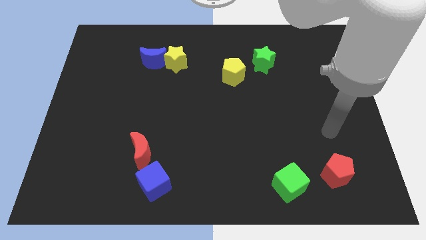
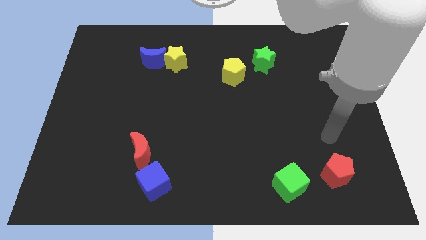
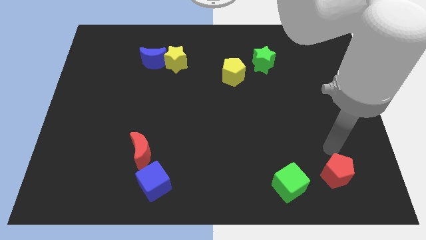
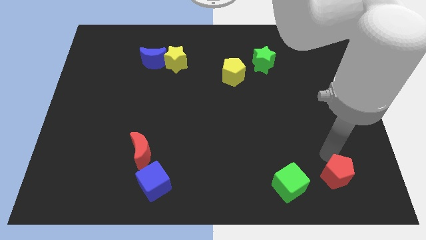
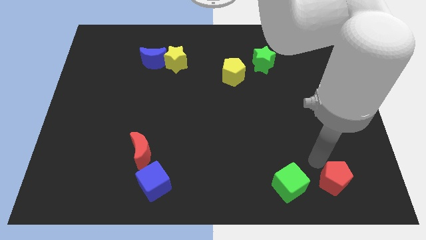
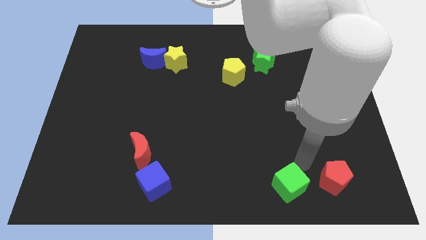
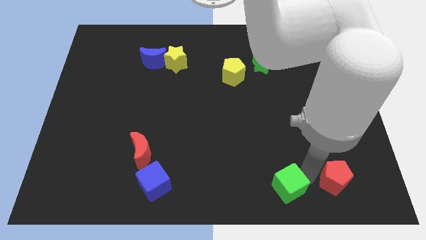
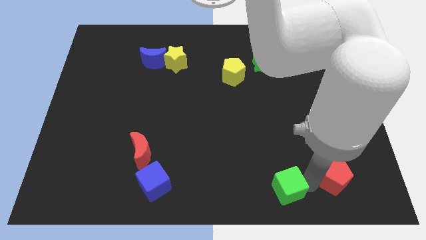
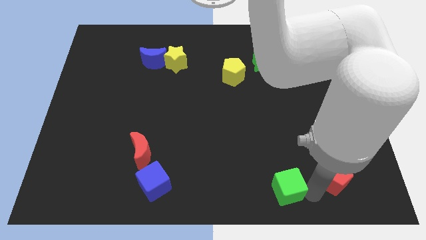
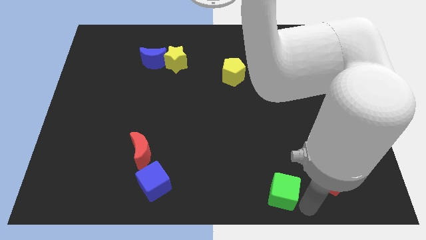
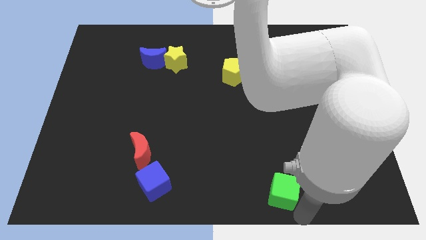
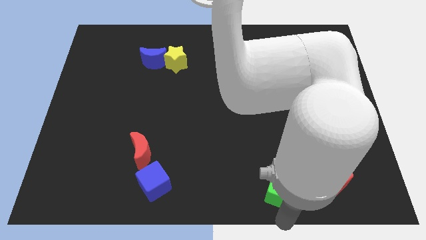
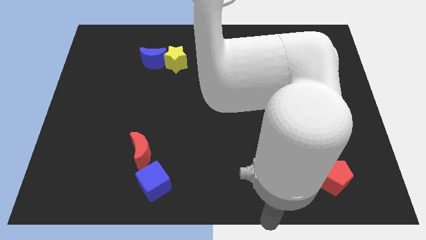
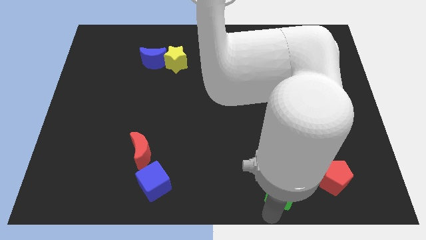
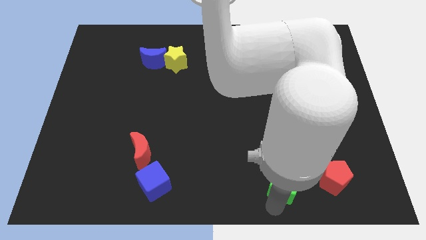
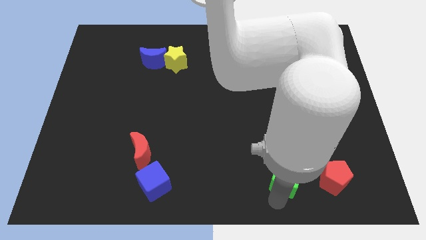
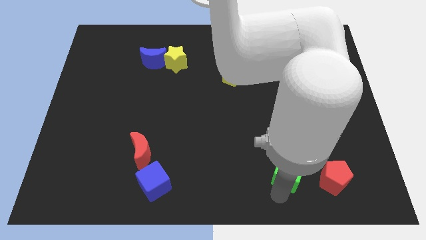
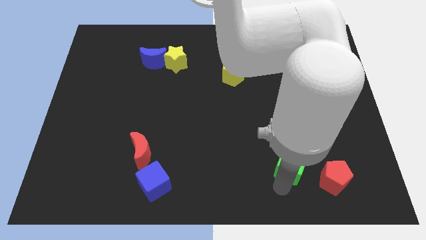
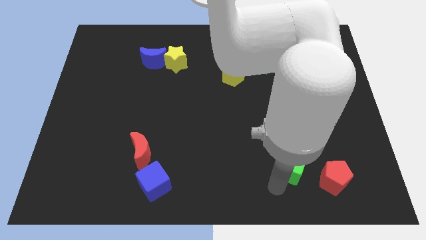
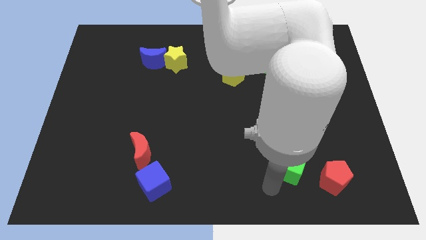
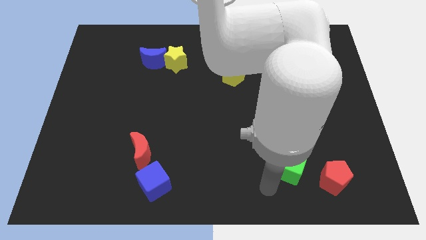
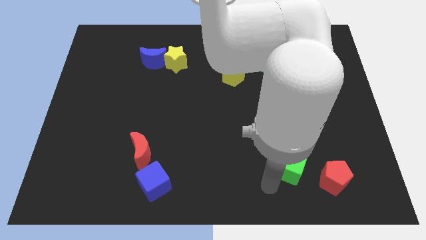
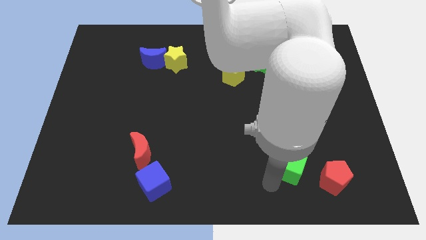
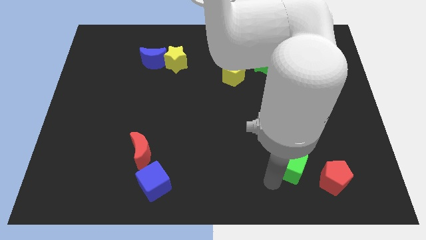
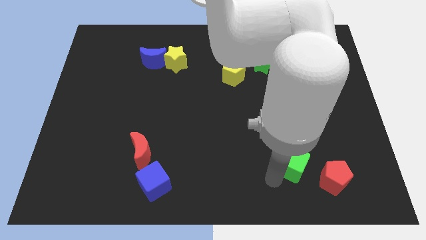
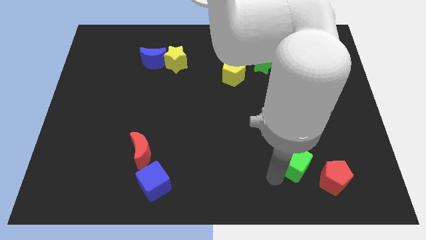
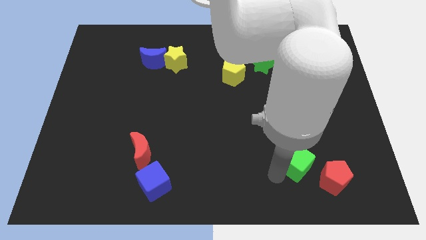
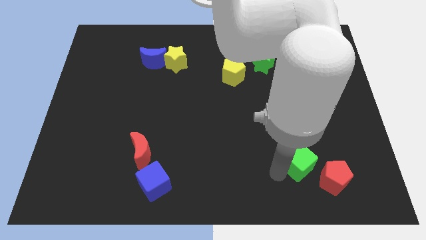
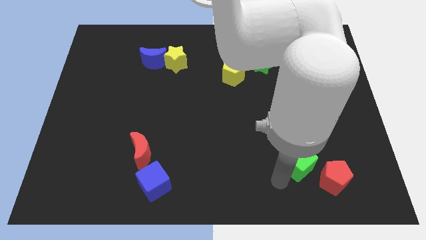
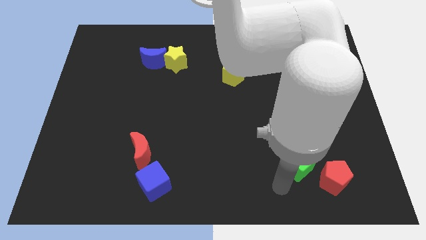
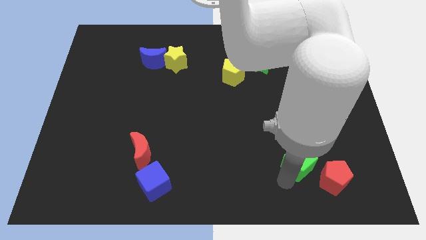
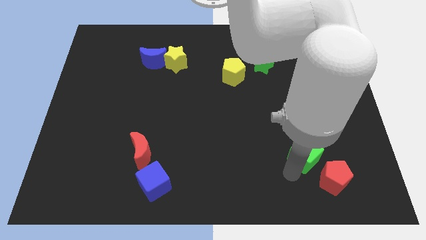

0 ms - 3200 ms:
slightly move the green cube upwards and to the right diagonally

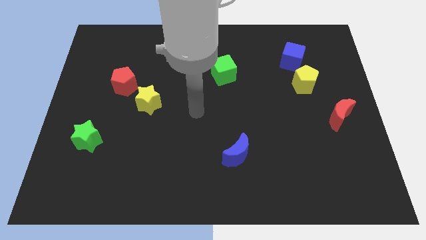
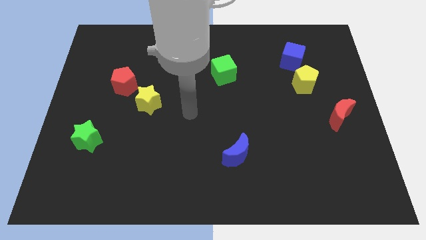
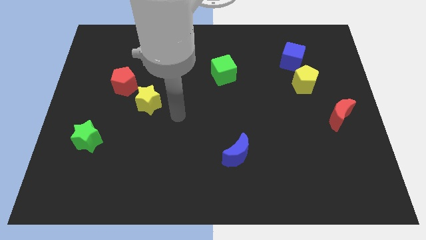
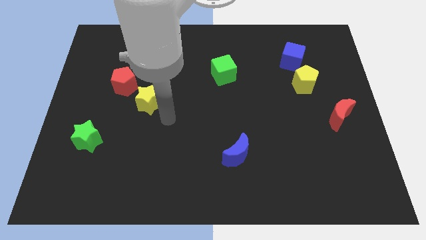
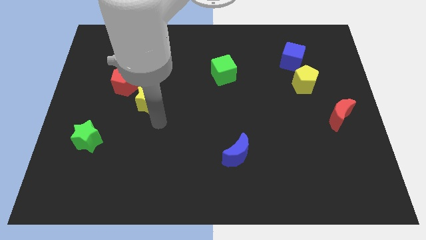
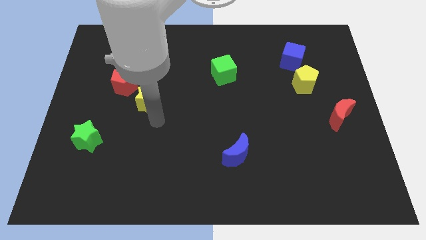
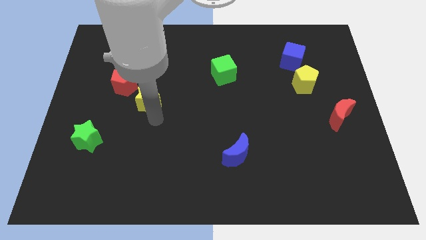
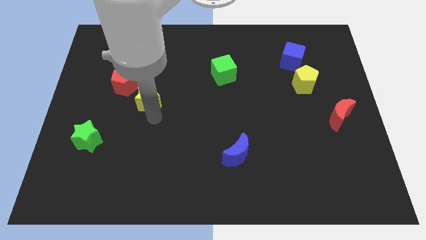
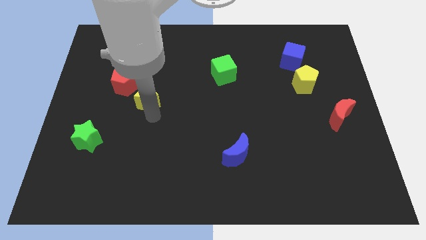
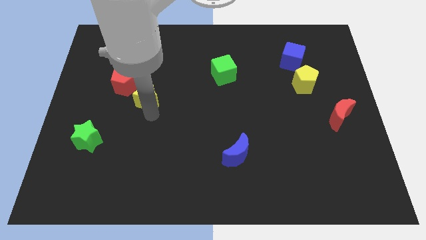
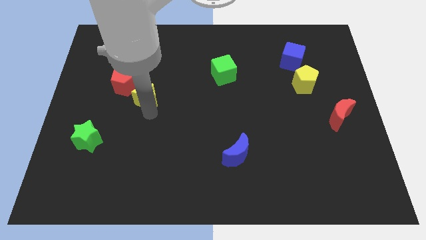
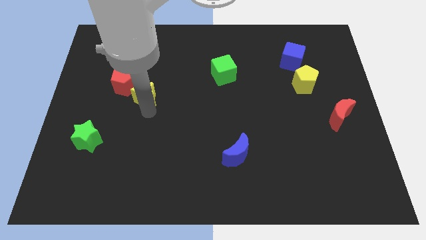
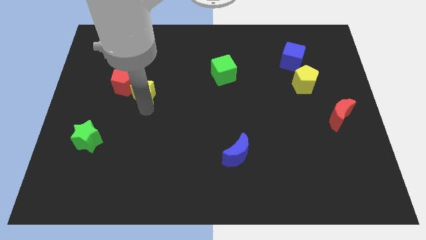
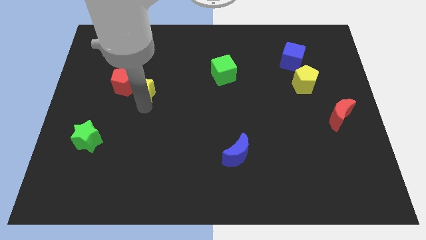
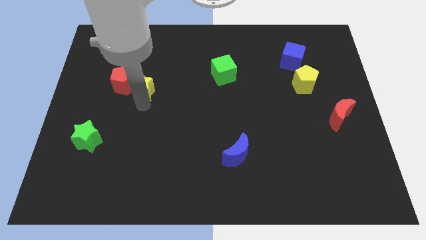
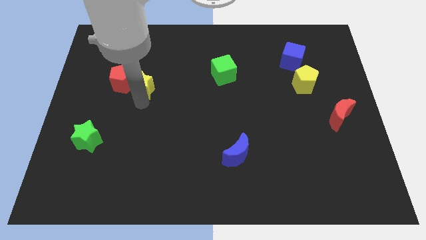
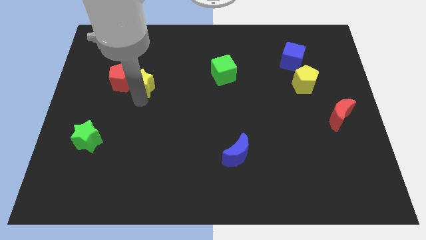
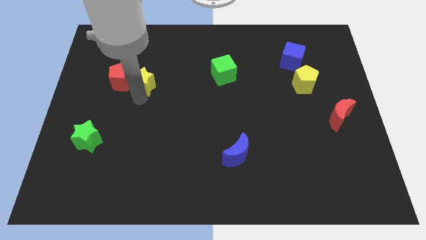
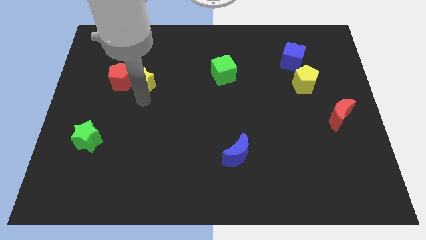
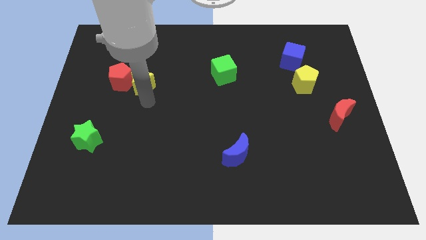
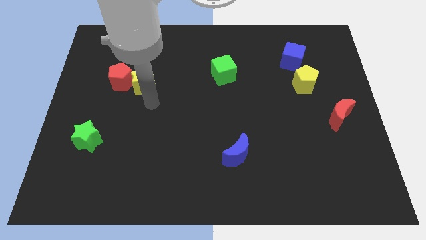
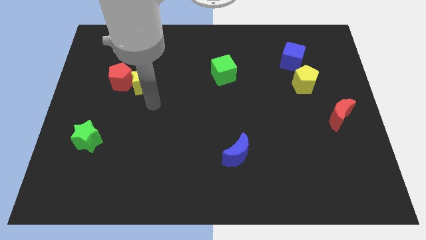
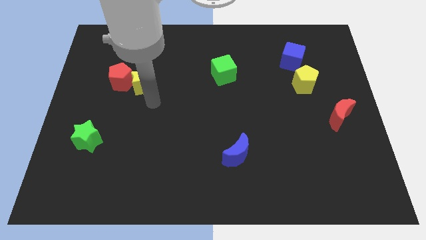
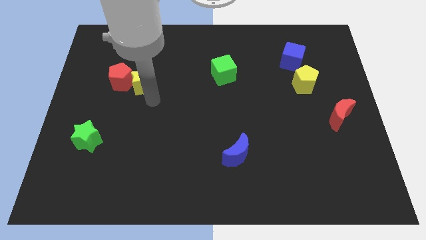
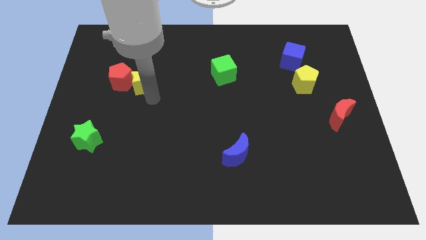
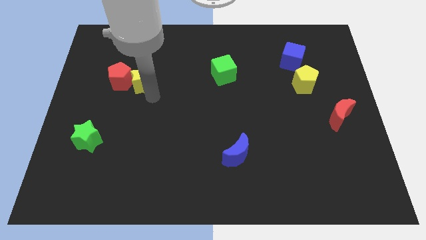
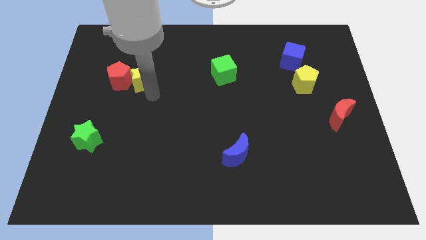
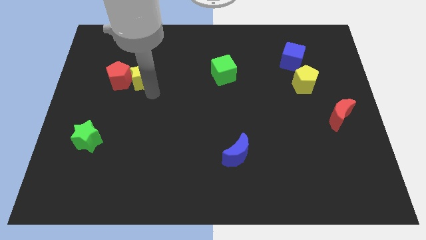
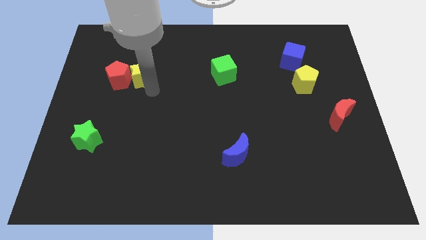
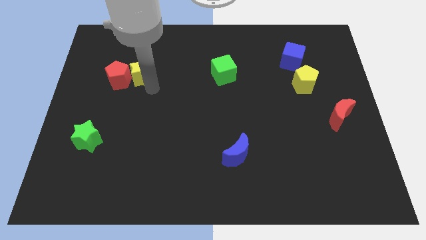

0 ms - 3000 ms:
slightly slide the yellow star diagonally up and left

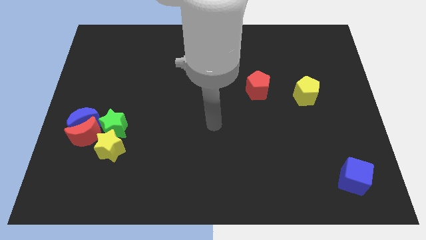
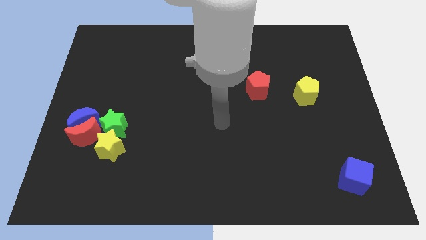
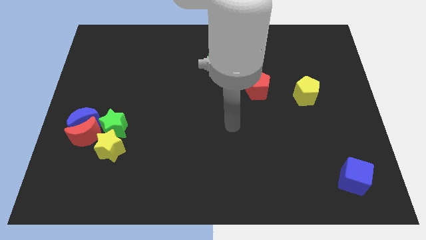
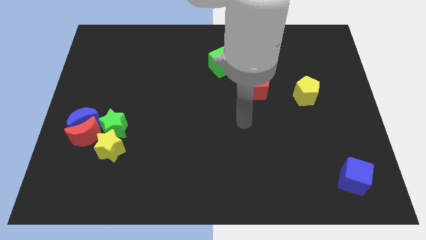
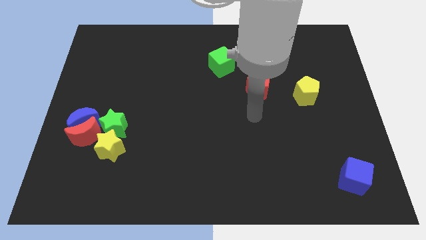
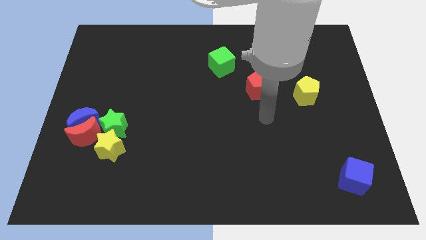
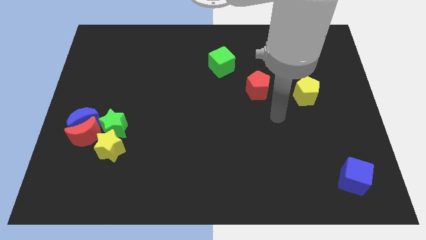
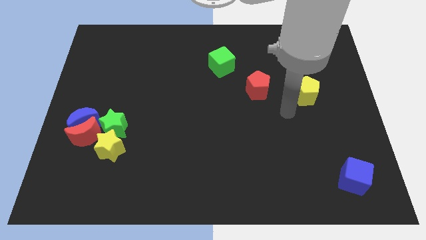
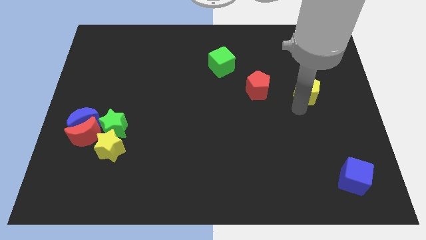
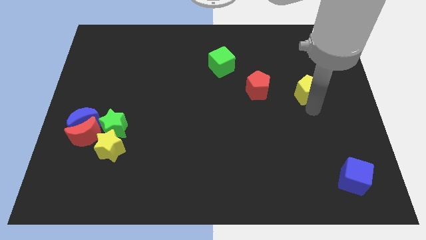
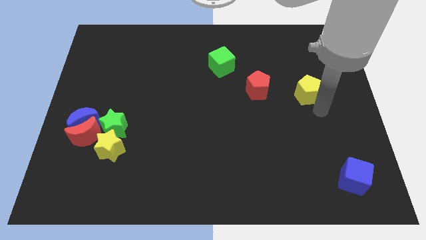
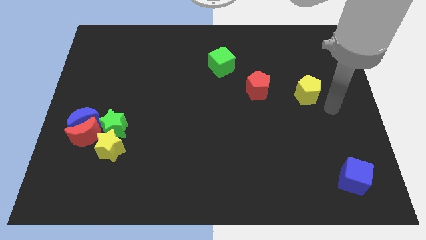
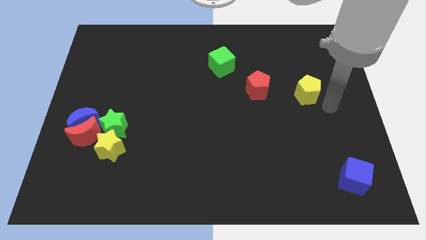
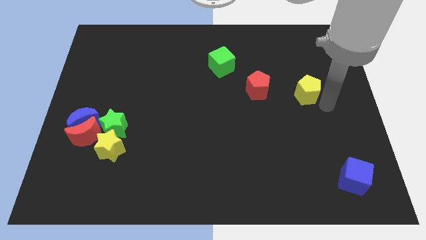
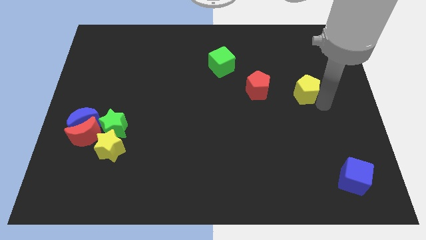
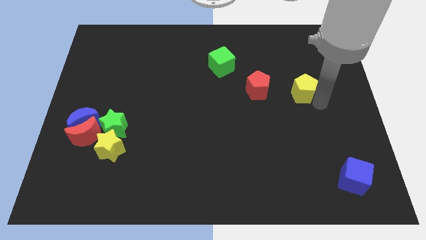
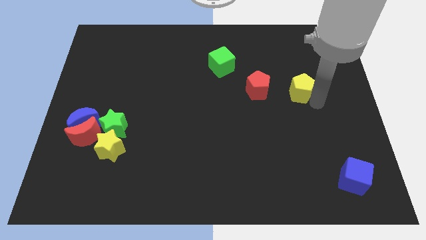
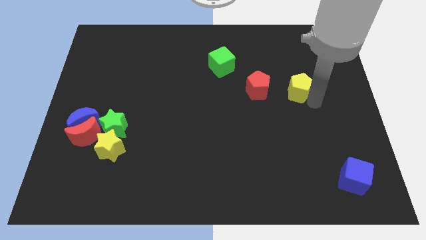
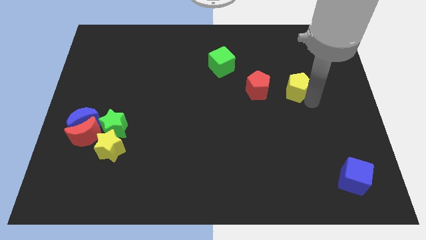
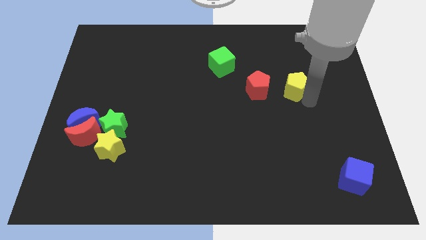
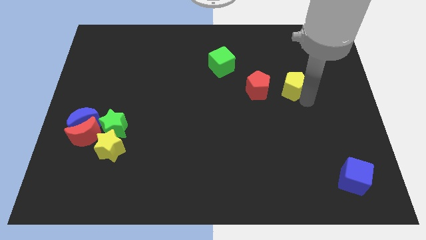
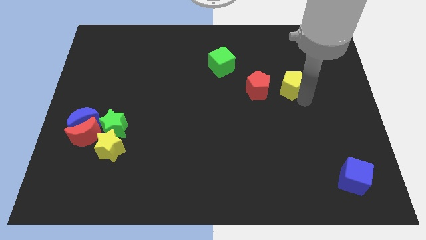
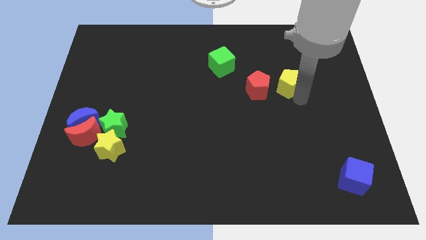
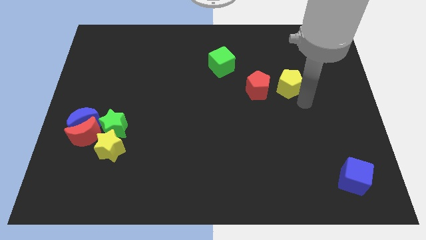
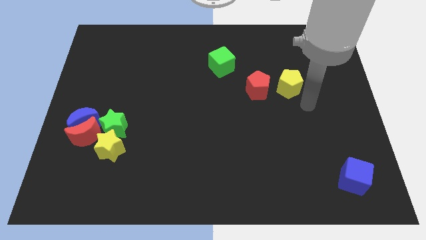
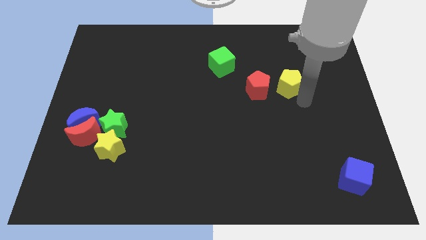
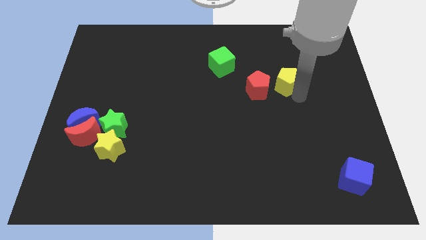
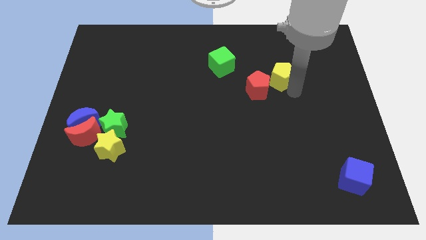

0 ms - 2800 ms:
slightly push the yellow pentagon upwards and left diagonally
